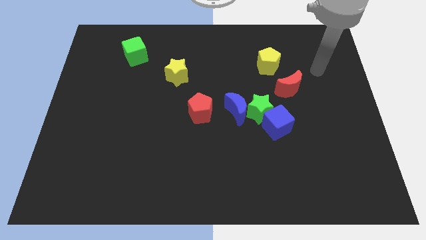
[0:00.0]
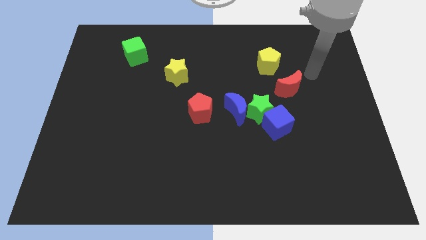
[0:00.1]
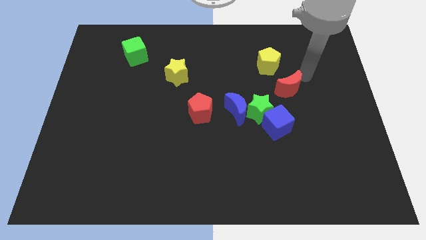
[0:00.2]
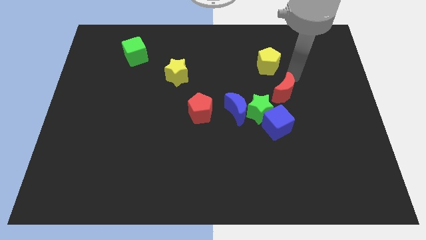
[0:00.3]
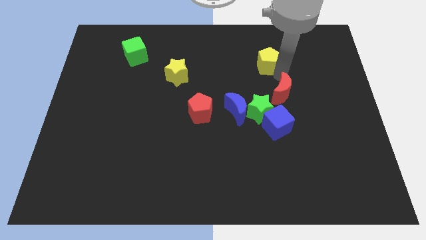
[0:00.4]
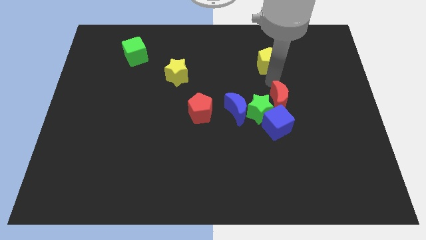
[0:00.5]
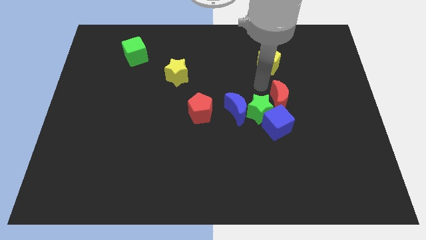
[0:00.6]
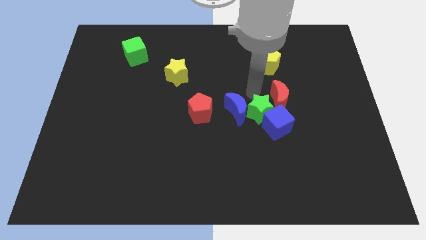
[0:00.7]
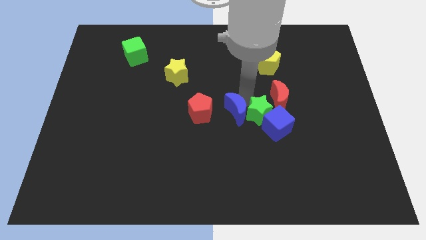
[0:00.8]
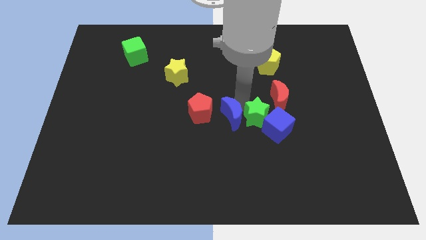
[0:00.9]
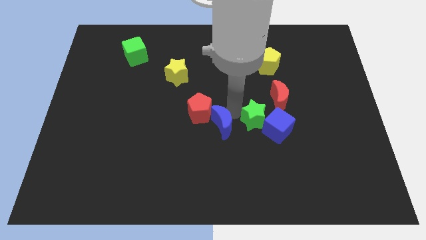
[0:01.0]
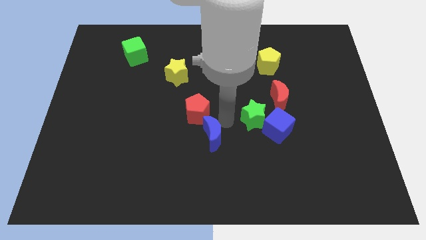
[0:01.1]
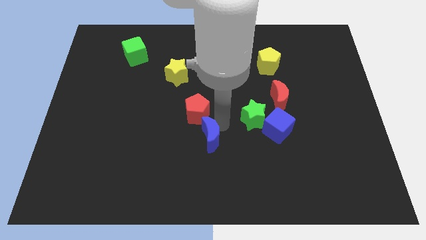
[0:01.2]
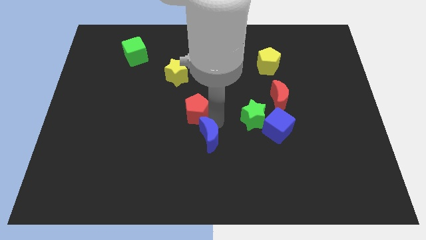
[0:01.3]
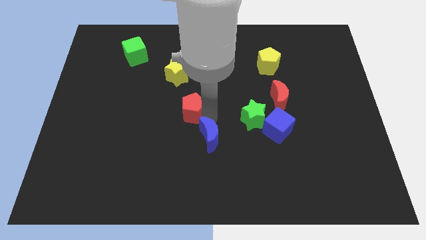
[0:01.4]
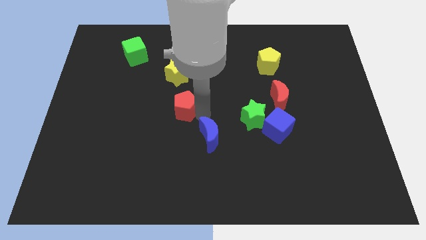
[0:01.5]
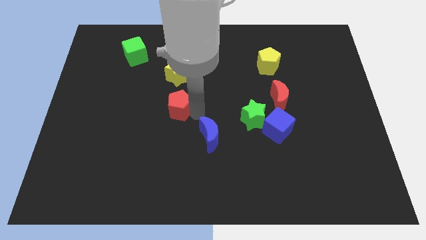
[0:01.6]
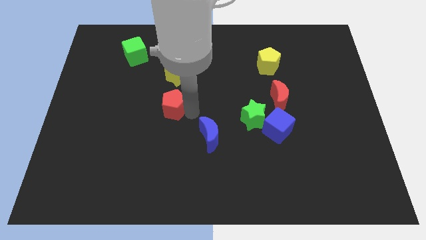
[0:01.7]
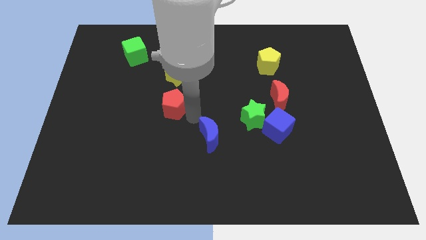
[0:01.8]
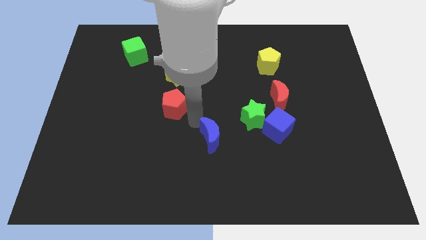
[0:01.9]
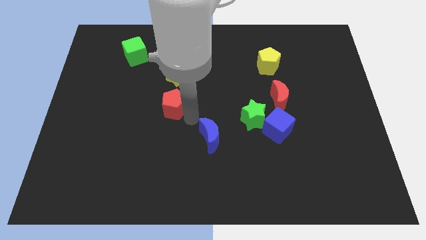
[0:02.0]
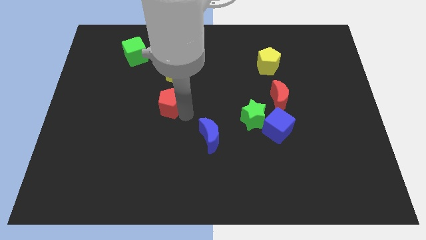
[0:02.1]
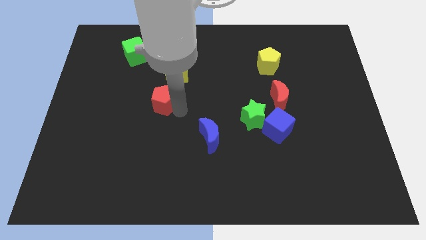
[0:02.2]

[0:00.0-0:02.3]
push the red pentagon a little up and to the left diagonally

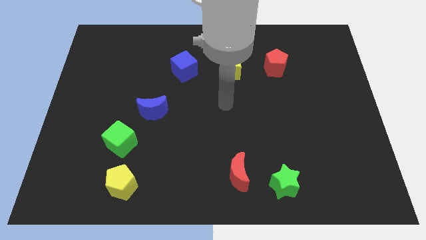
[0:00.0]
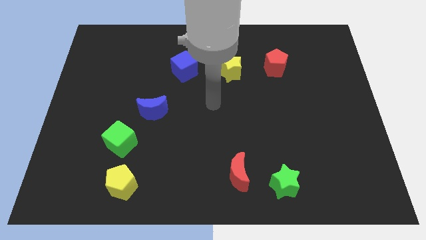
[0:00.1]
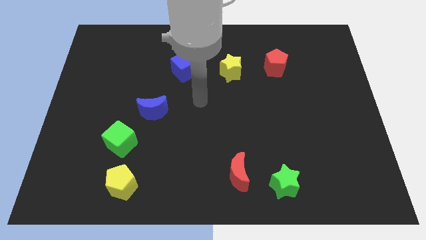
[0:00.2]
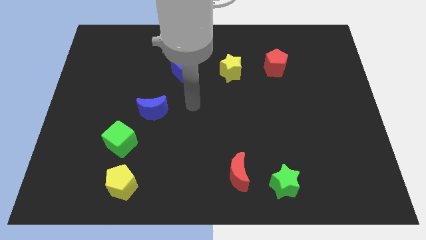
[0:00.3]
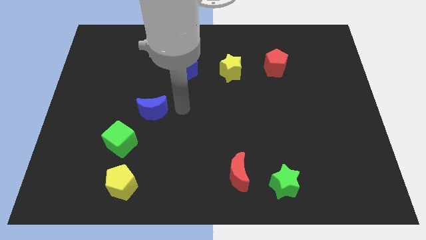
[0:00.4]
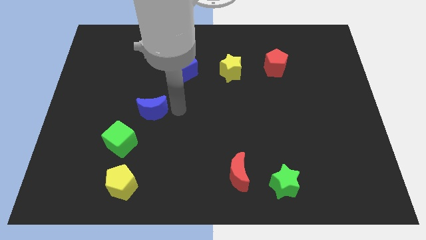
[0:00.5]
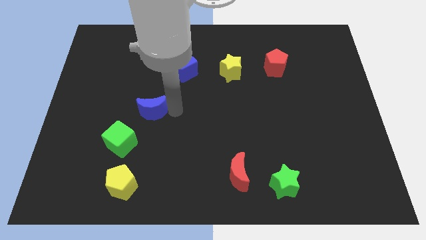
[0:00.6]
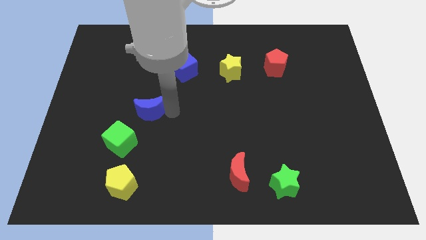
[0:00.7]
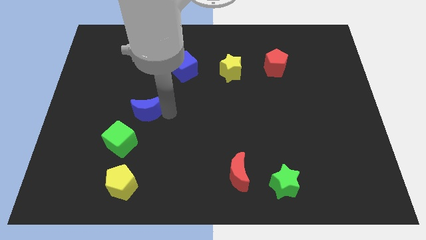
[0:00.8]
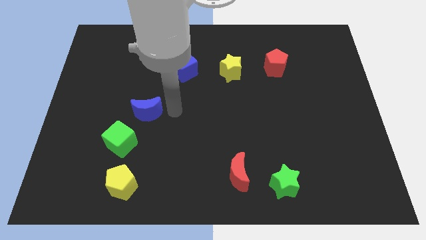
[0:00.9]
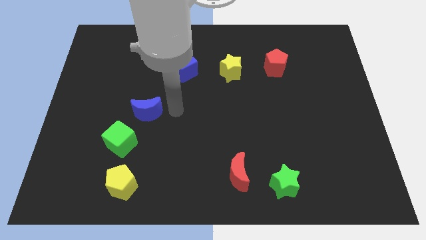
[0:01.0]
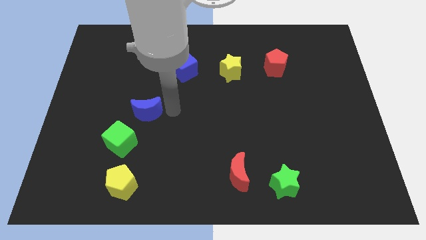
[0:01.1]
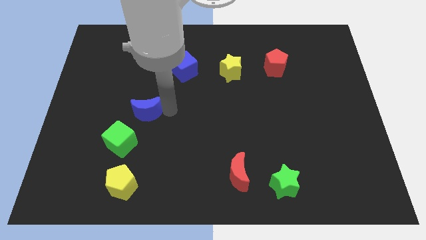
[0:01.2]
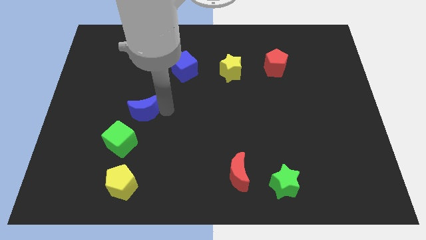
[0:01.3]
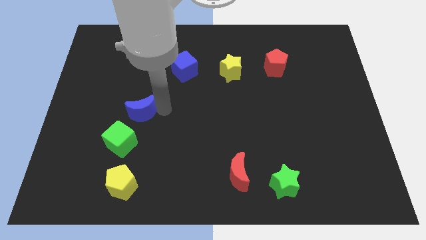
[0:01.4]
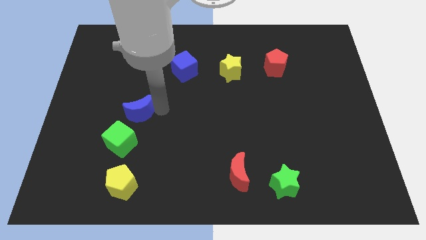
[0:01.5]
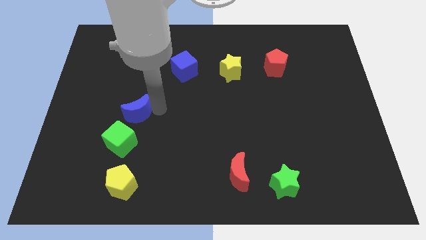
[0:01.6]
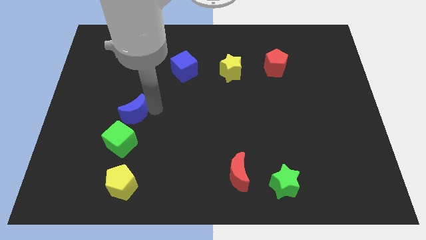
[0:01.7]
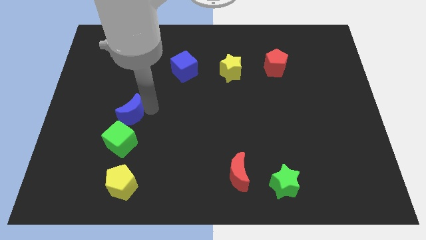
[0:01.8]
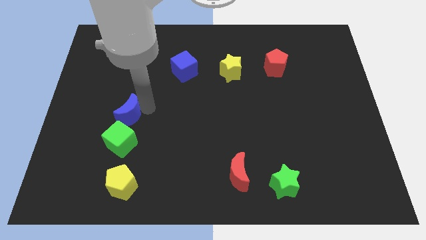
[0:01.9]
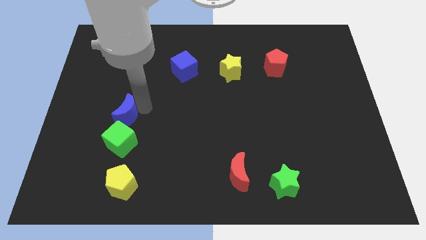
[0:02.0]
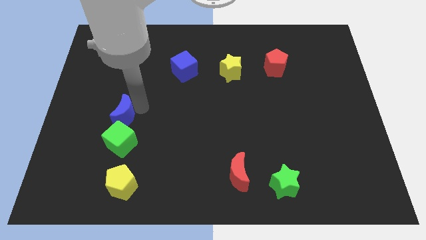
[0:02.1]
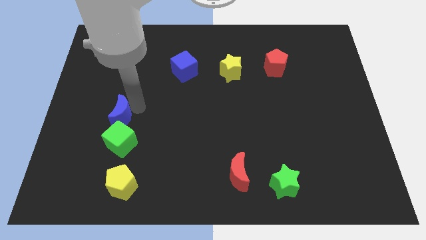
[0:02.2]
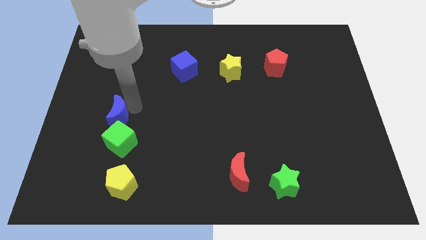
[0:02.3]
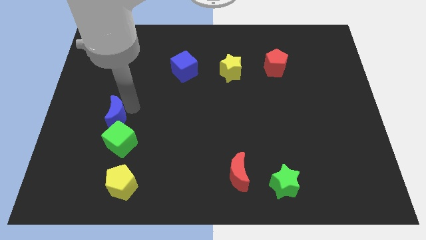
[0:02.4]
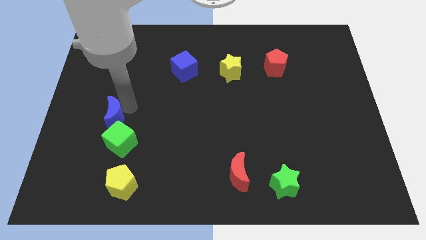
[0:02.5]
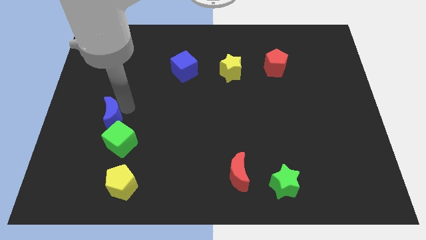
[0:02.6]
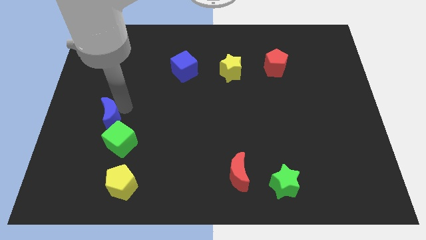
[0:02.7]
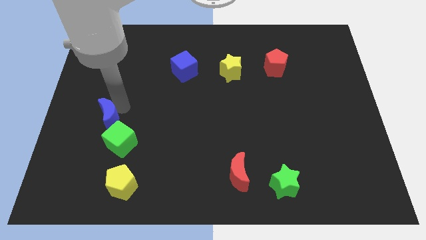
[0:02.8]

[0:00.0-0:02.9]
slightly move the blue moon diagonally down and left

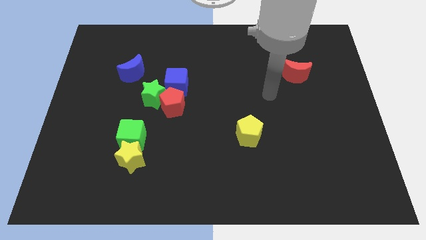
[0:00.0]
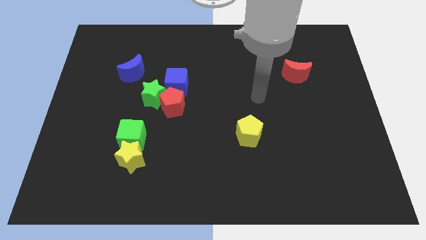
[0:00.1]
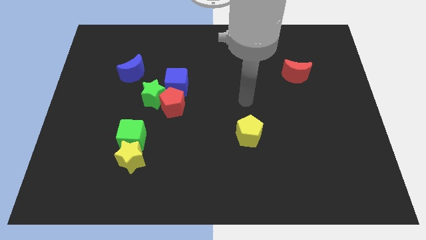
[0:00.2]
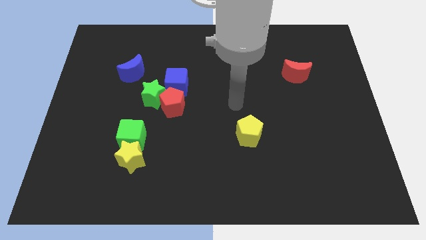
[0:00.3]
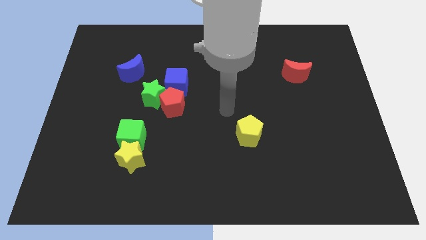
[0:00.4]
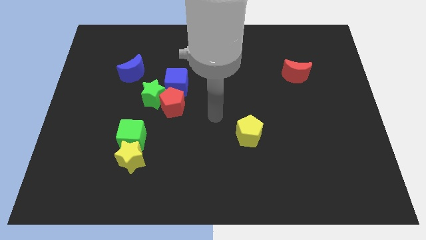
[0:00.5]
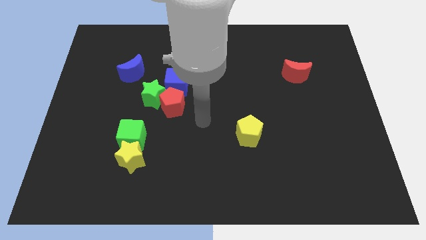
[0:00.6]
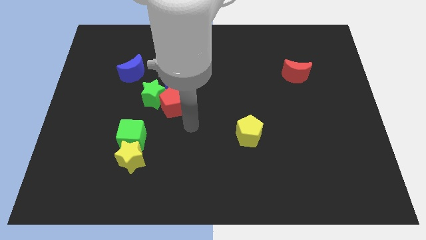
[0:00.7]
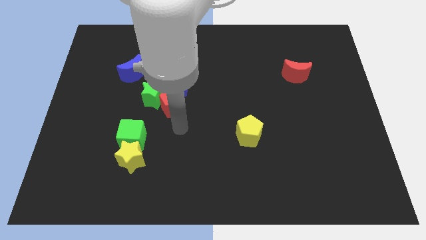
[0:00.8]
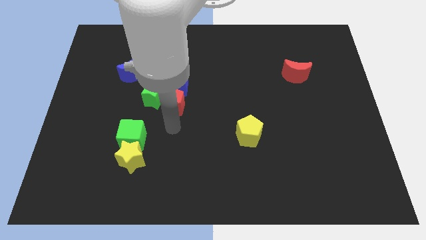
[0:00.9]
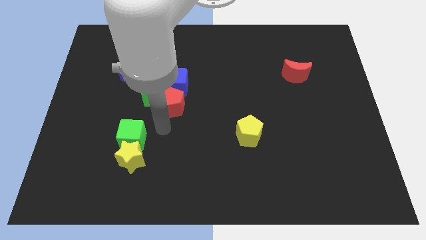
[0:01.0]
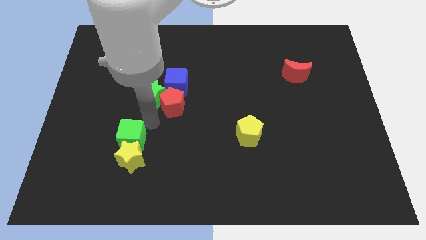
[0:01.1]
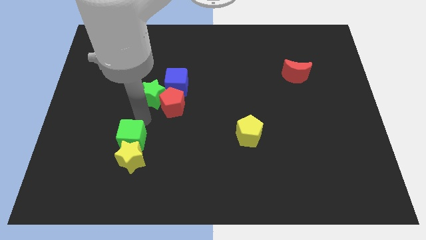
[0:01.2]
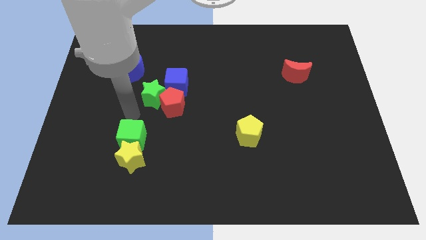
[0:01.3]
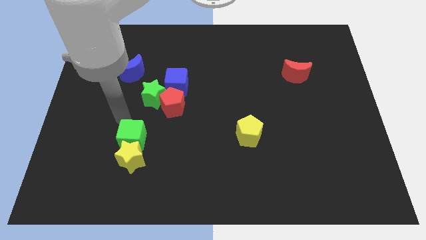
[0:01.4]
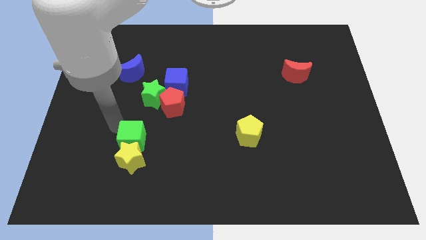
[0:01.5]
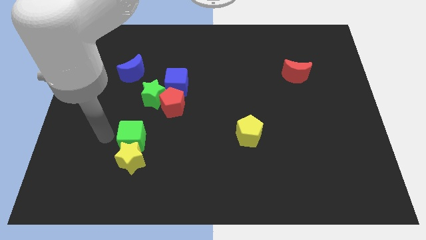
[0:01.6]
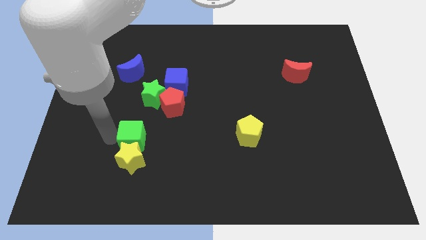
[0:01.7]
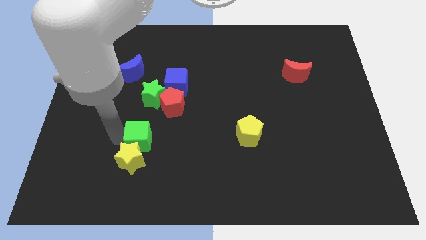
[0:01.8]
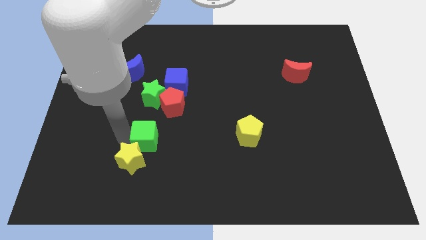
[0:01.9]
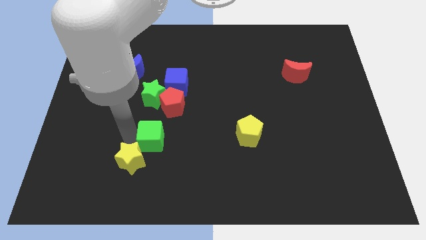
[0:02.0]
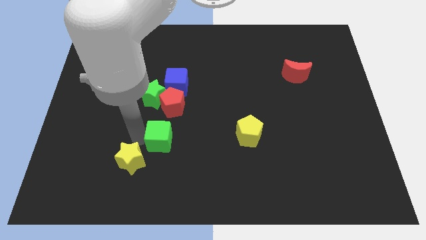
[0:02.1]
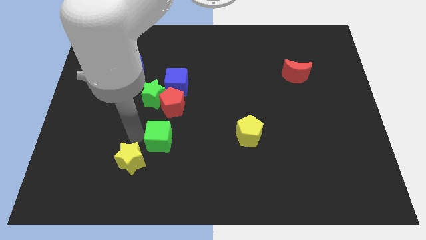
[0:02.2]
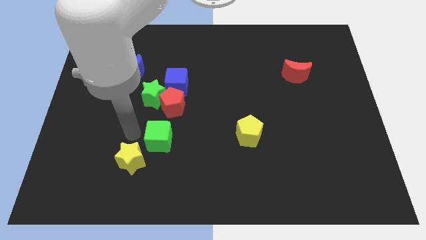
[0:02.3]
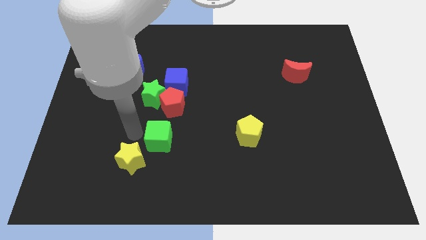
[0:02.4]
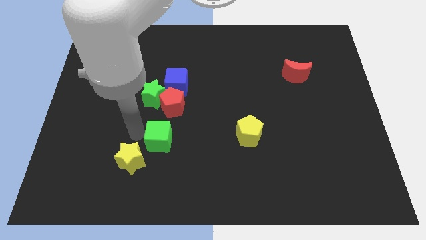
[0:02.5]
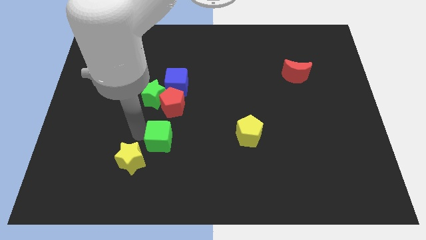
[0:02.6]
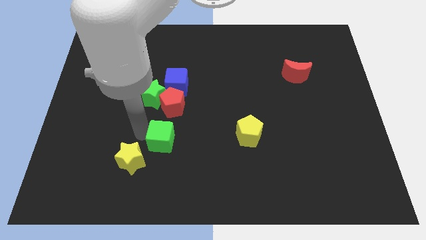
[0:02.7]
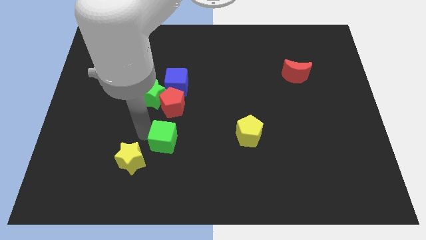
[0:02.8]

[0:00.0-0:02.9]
slide the green cube a little bit to the right

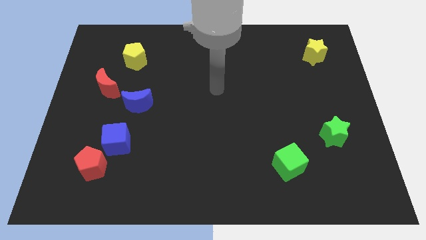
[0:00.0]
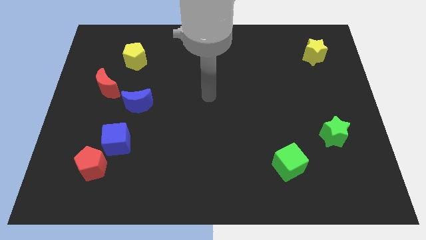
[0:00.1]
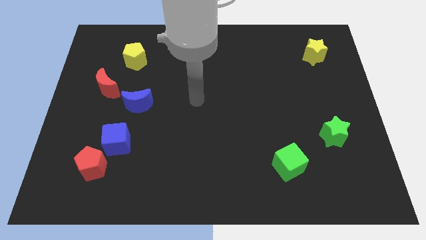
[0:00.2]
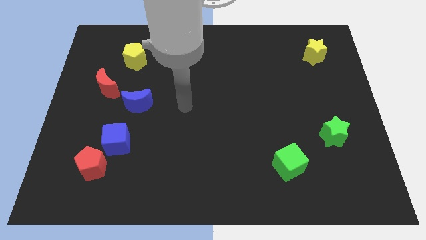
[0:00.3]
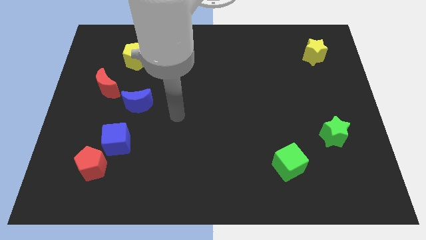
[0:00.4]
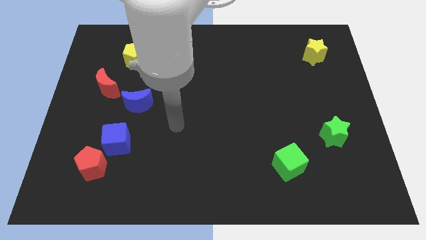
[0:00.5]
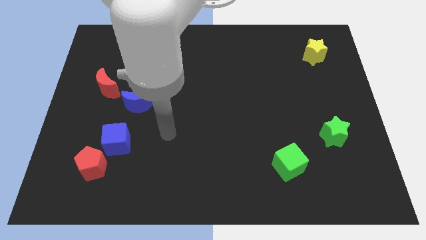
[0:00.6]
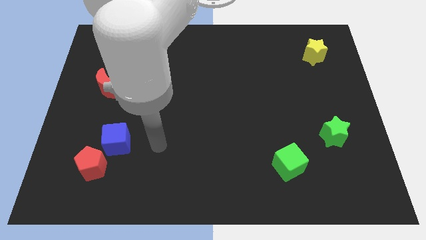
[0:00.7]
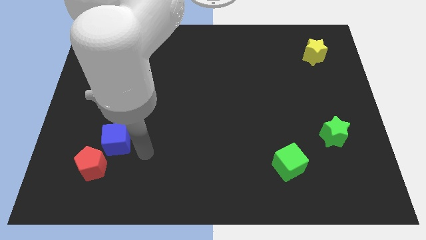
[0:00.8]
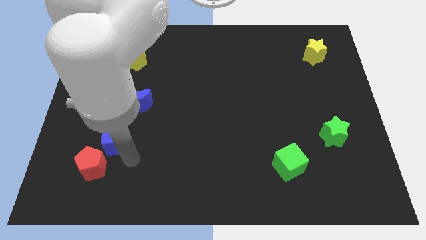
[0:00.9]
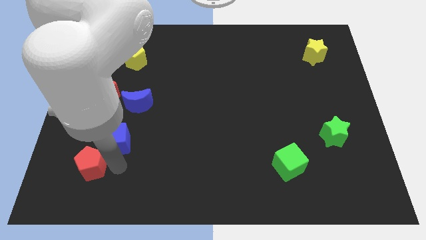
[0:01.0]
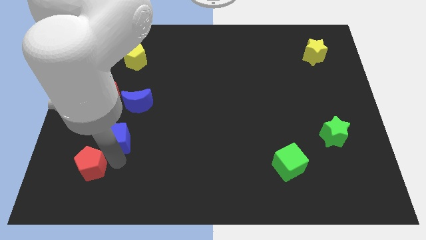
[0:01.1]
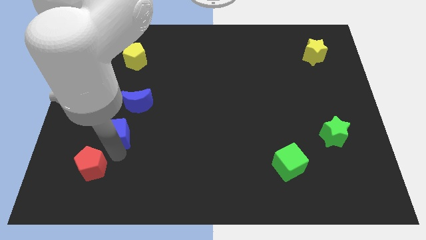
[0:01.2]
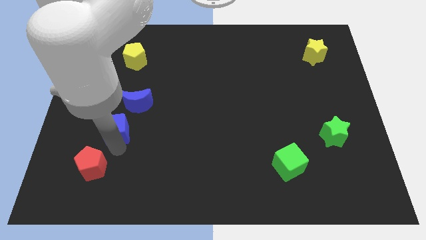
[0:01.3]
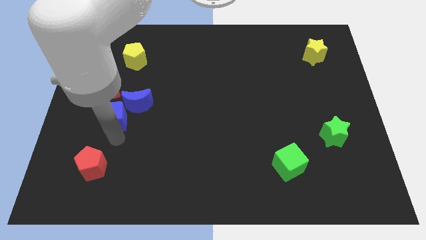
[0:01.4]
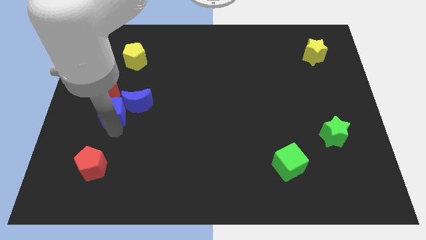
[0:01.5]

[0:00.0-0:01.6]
slightly push the blue cube up
